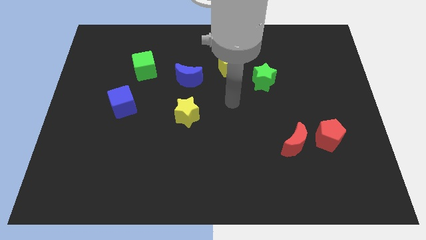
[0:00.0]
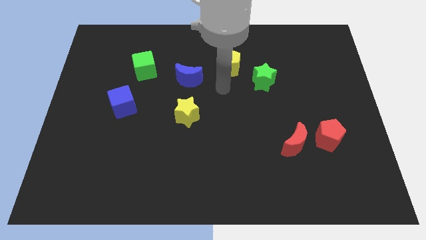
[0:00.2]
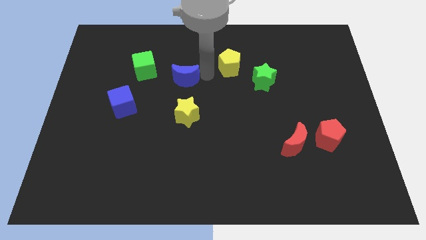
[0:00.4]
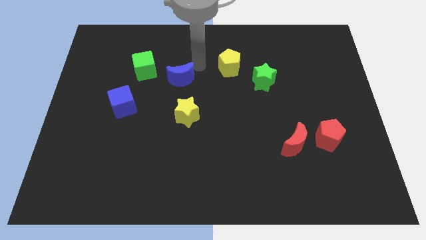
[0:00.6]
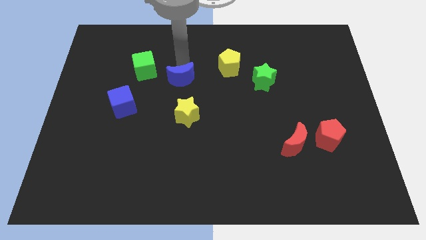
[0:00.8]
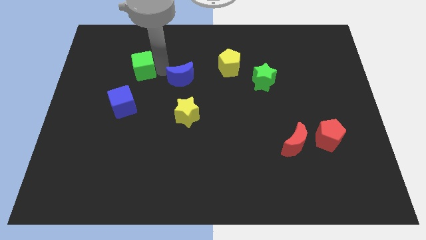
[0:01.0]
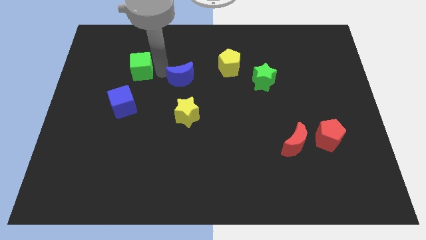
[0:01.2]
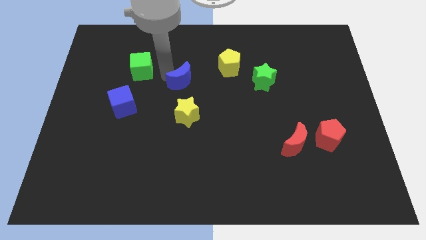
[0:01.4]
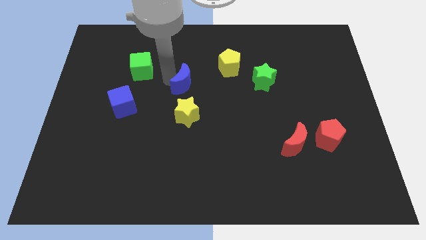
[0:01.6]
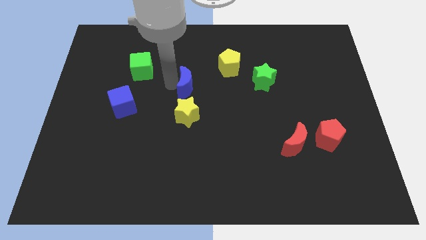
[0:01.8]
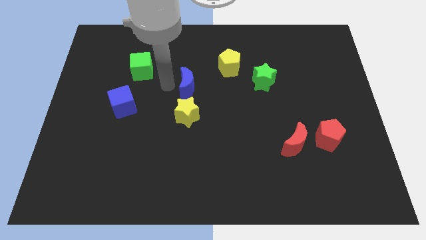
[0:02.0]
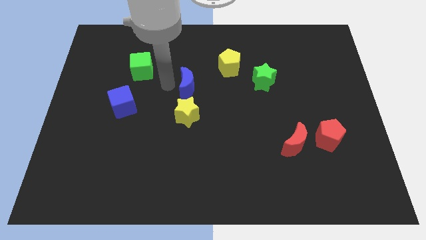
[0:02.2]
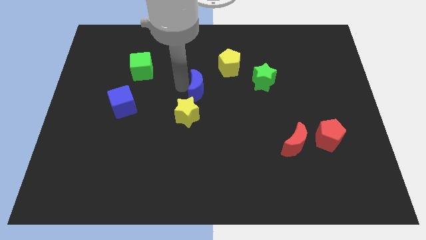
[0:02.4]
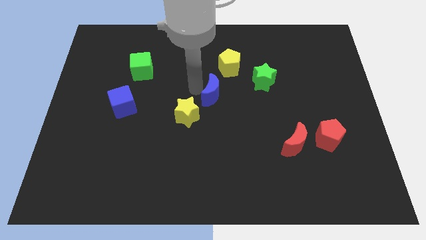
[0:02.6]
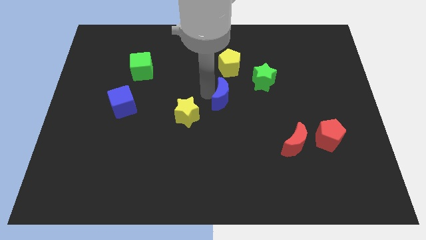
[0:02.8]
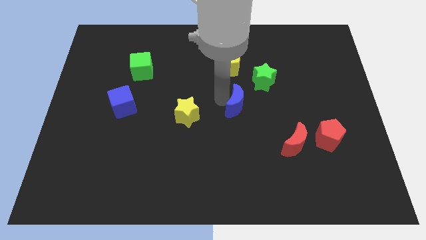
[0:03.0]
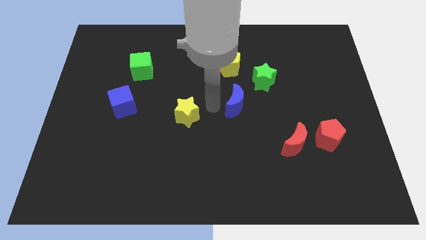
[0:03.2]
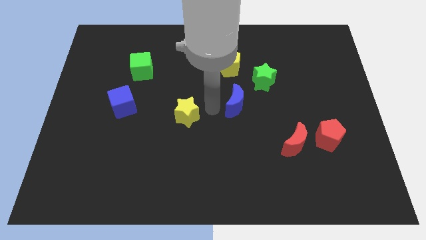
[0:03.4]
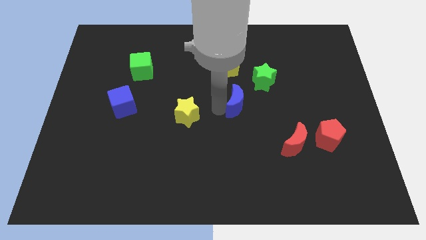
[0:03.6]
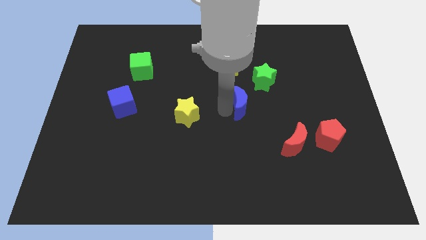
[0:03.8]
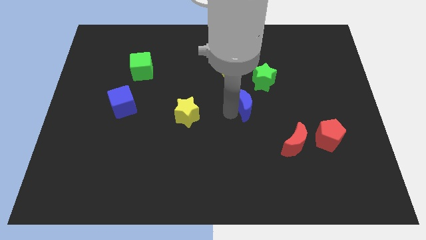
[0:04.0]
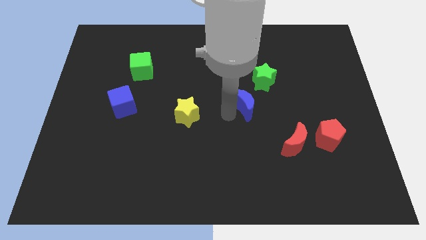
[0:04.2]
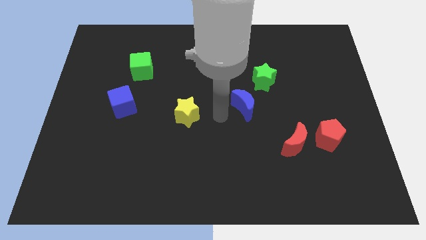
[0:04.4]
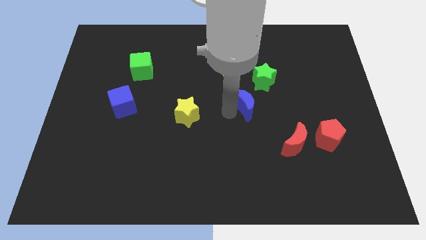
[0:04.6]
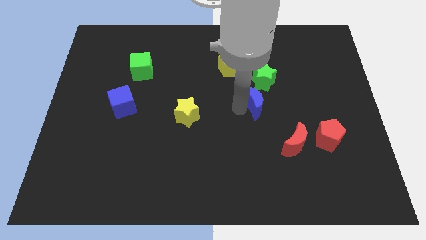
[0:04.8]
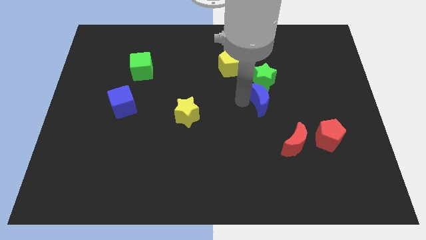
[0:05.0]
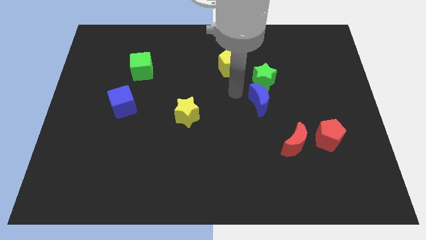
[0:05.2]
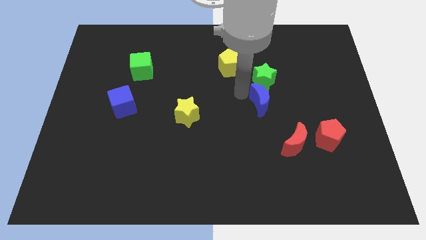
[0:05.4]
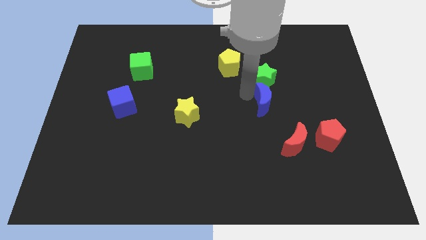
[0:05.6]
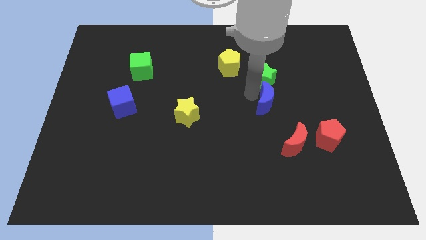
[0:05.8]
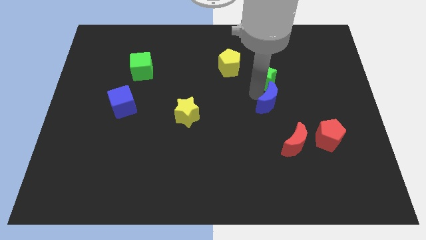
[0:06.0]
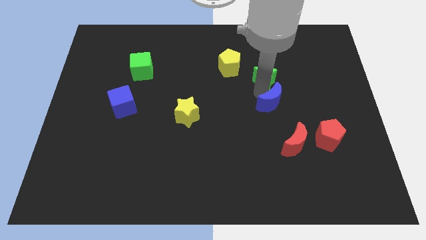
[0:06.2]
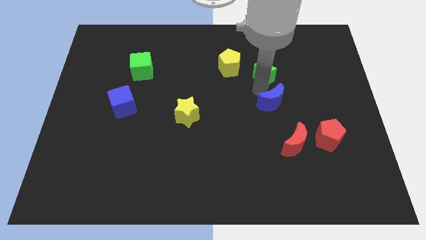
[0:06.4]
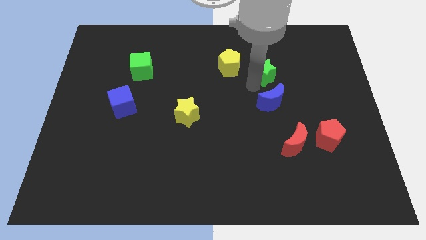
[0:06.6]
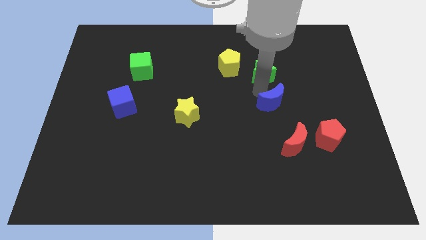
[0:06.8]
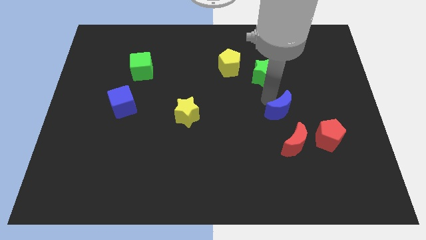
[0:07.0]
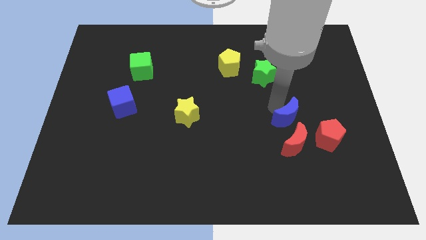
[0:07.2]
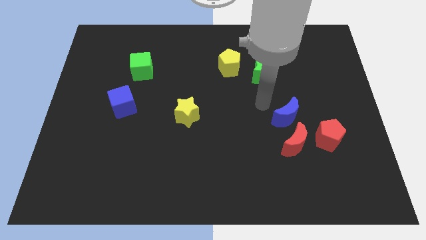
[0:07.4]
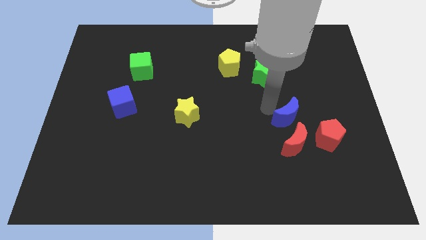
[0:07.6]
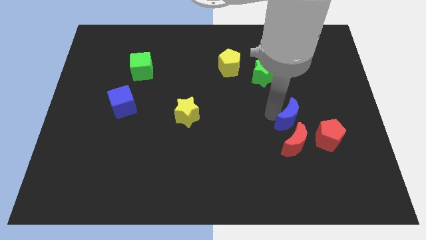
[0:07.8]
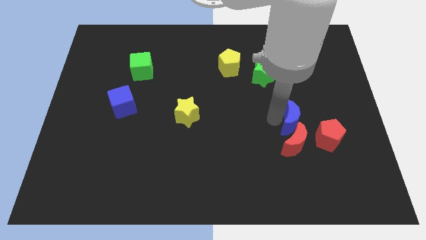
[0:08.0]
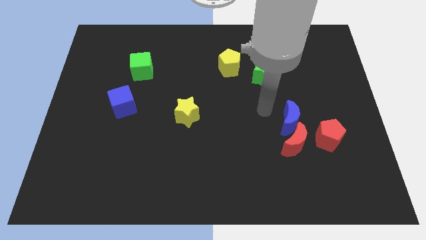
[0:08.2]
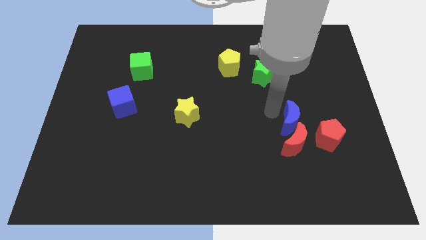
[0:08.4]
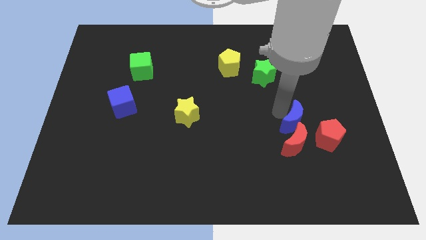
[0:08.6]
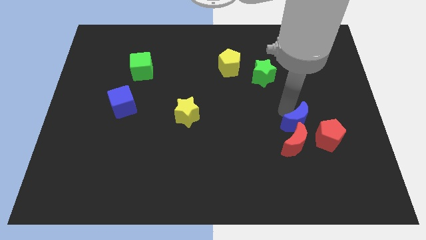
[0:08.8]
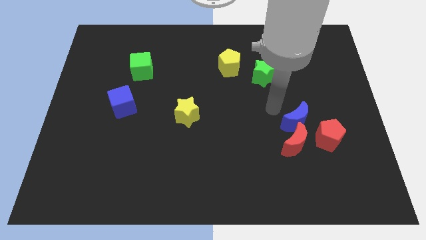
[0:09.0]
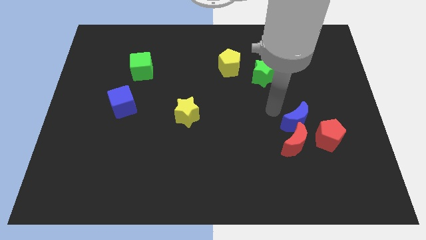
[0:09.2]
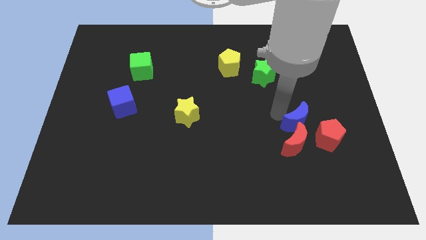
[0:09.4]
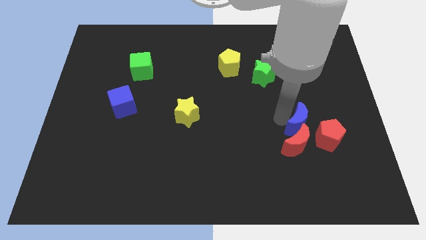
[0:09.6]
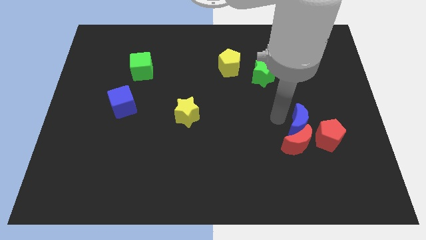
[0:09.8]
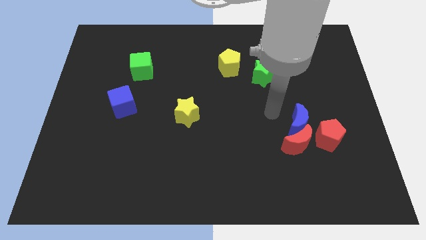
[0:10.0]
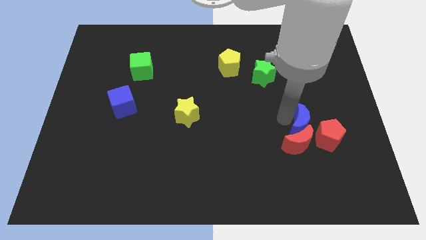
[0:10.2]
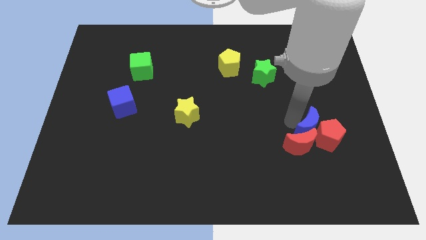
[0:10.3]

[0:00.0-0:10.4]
move the blue moon next to the red pentagon

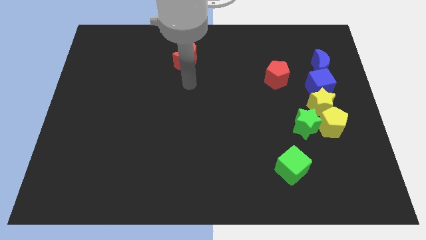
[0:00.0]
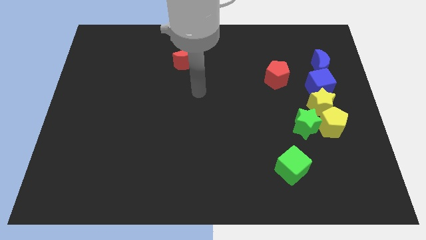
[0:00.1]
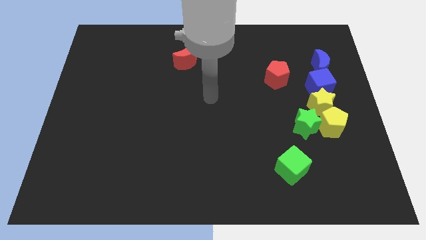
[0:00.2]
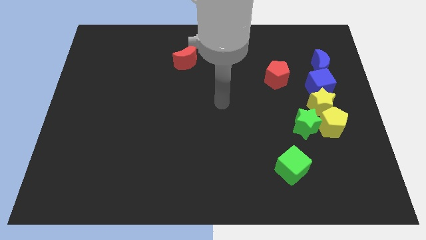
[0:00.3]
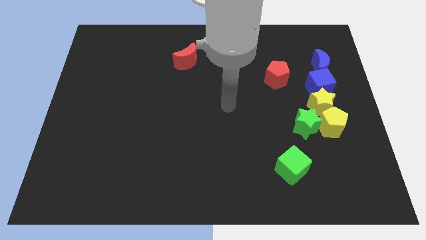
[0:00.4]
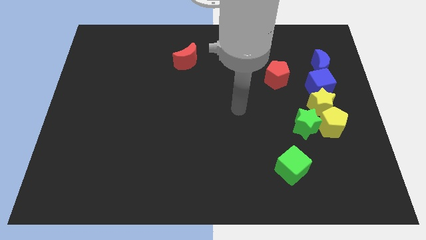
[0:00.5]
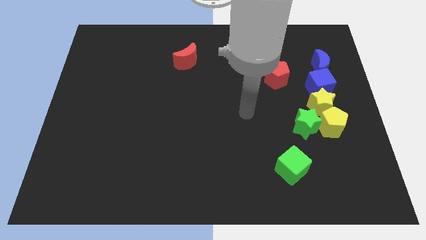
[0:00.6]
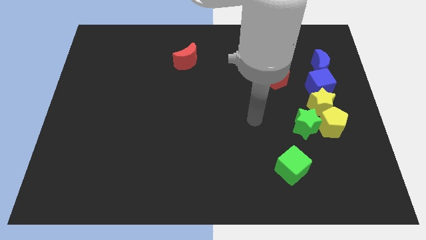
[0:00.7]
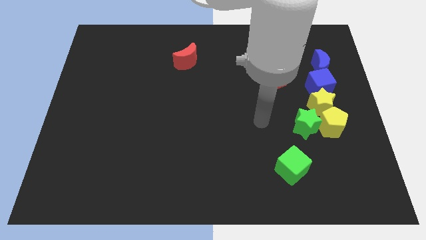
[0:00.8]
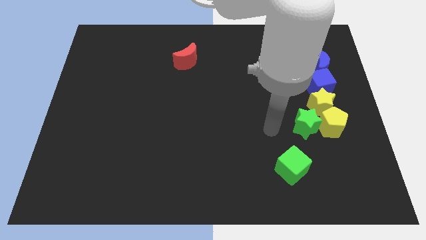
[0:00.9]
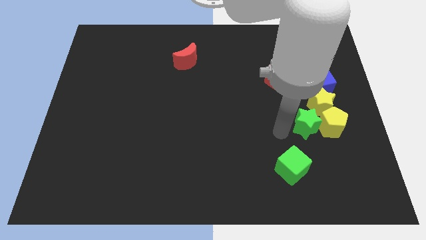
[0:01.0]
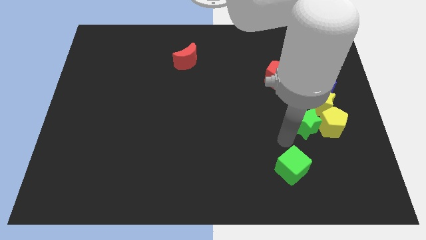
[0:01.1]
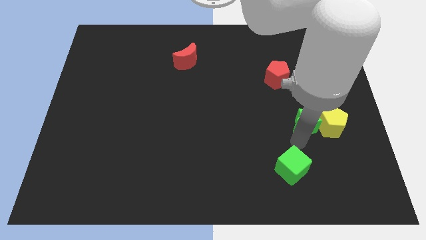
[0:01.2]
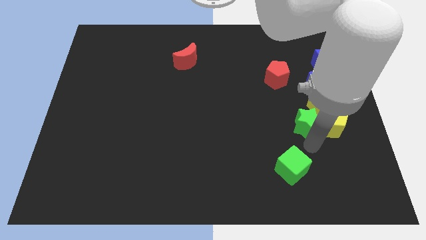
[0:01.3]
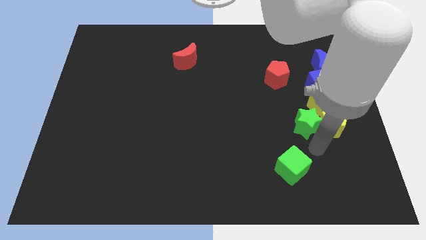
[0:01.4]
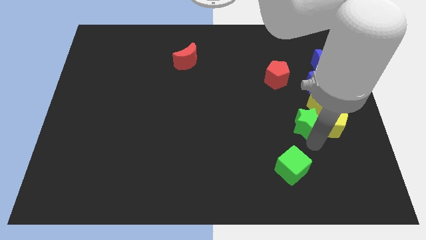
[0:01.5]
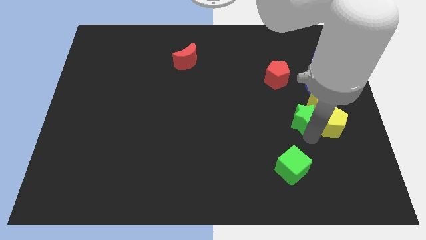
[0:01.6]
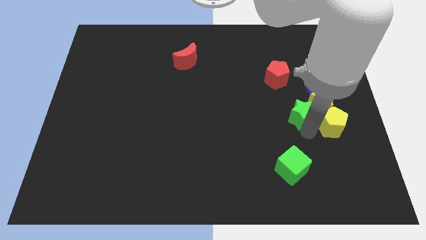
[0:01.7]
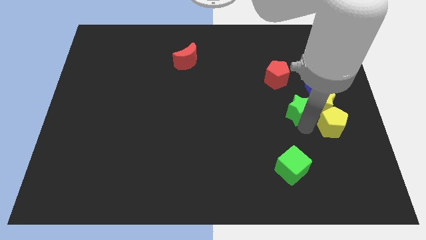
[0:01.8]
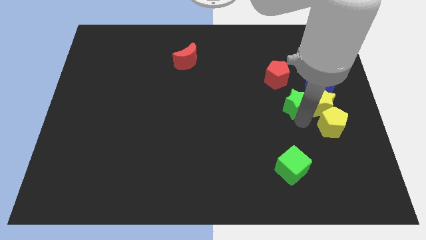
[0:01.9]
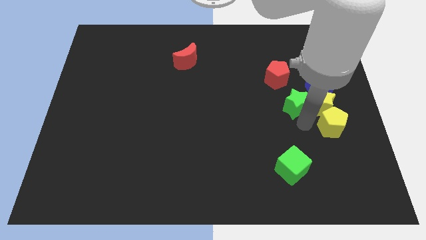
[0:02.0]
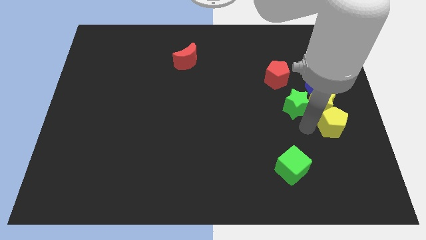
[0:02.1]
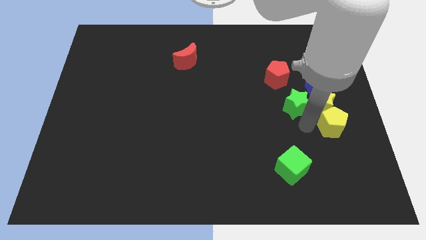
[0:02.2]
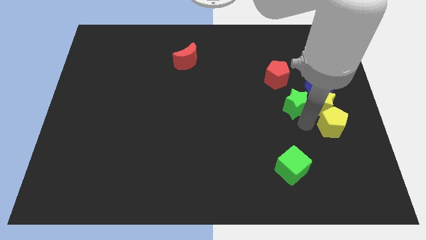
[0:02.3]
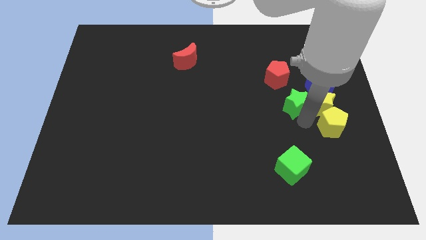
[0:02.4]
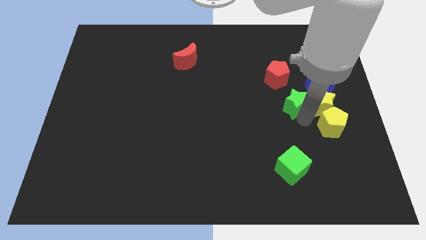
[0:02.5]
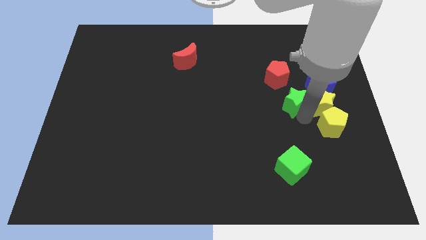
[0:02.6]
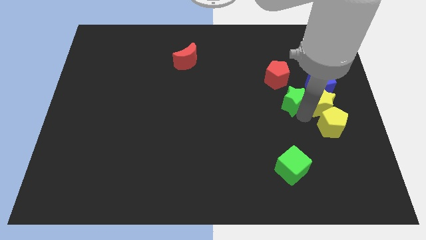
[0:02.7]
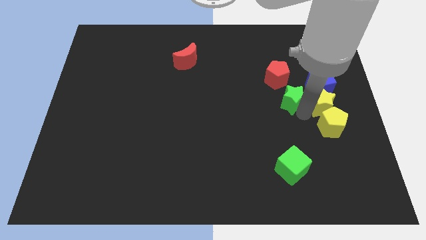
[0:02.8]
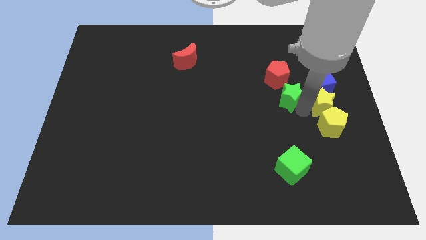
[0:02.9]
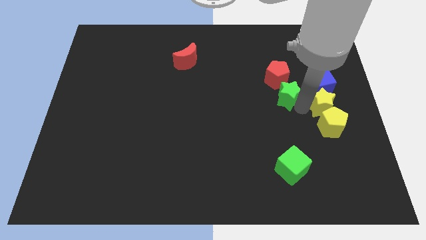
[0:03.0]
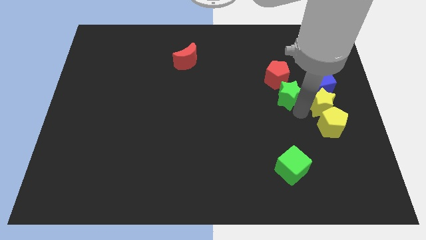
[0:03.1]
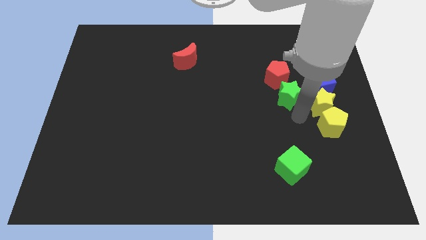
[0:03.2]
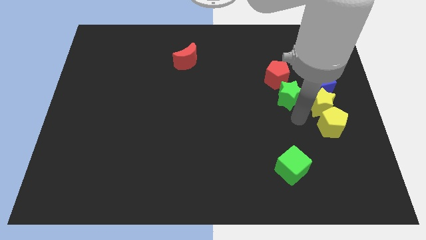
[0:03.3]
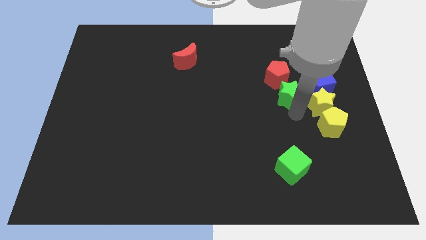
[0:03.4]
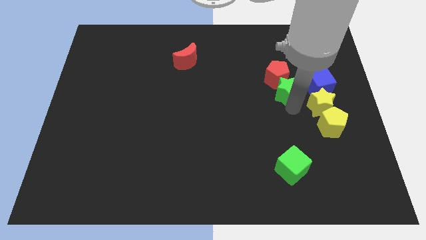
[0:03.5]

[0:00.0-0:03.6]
put the green star next to the red pentagon
